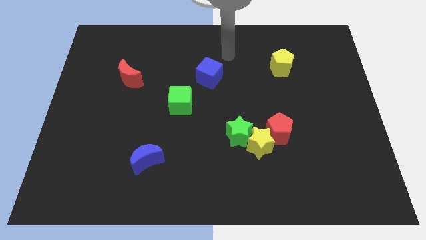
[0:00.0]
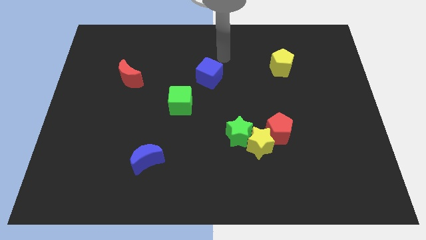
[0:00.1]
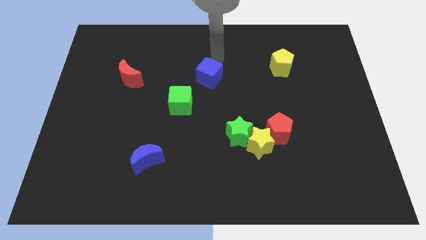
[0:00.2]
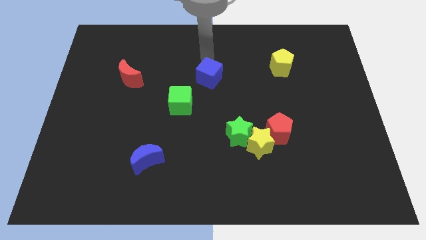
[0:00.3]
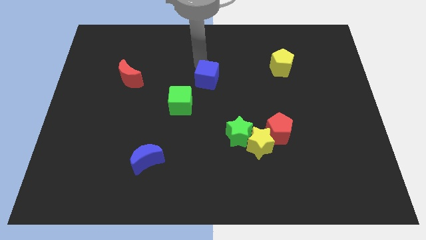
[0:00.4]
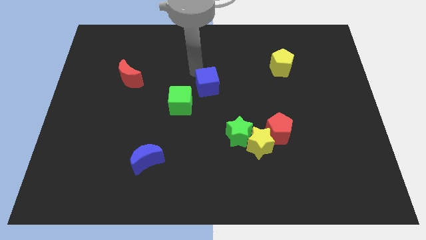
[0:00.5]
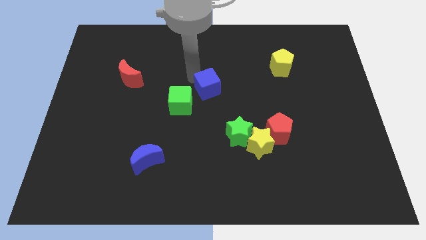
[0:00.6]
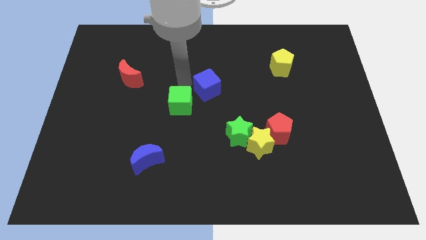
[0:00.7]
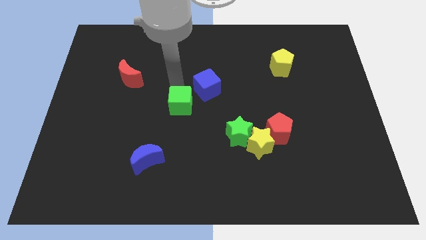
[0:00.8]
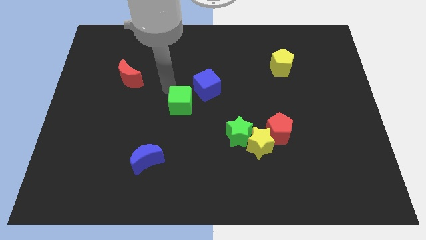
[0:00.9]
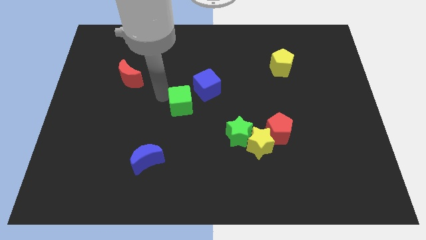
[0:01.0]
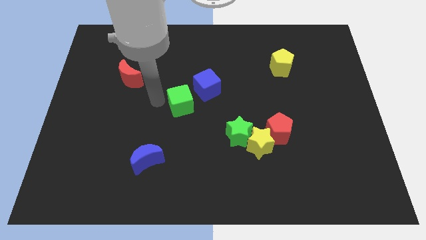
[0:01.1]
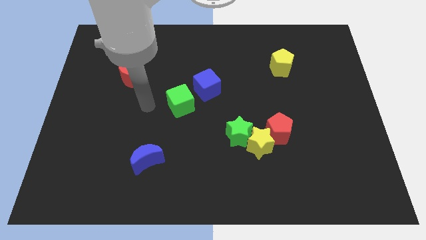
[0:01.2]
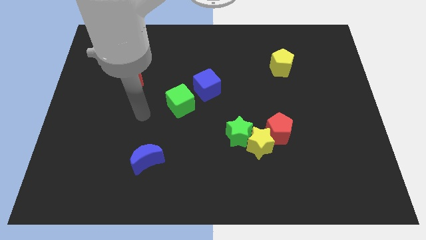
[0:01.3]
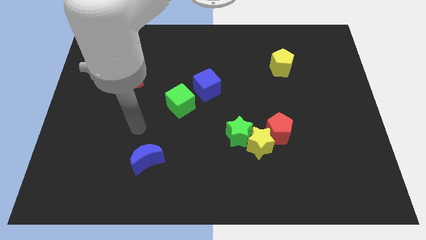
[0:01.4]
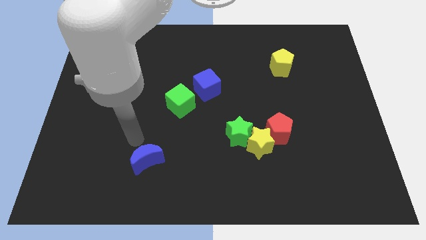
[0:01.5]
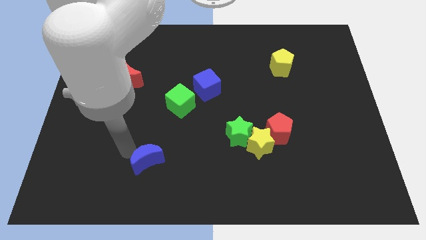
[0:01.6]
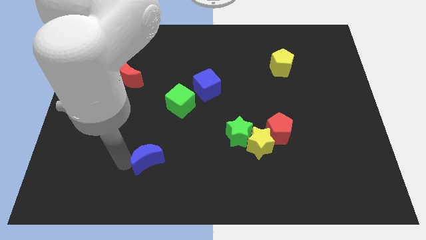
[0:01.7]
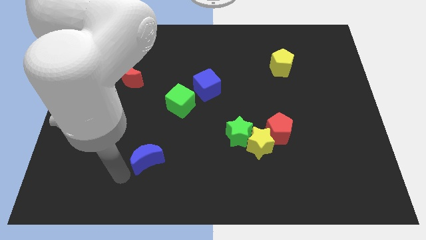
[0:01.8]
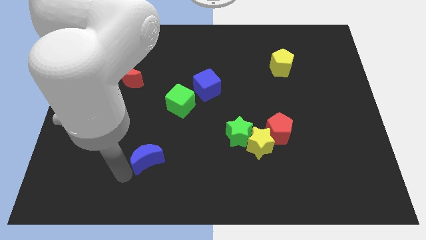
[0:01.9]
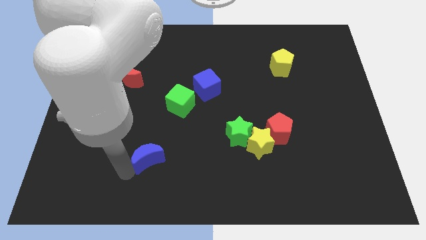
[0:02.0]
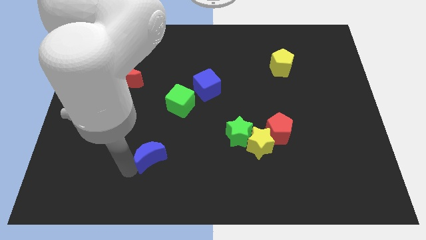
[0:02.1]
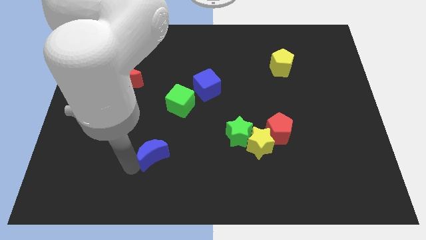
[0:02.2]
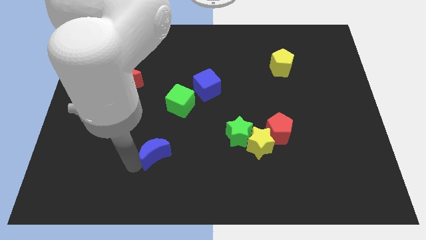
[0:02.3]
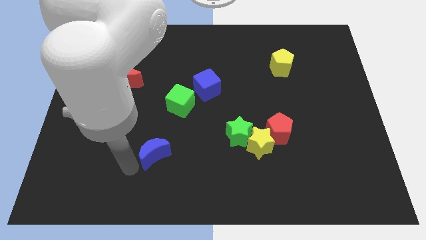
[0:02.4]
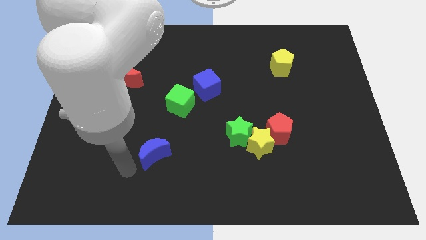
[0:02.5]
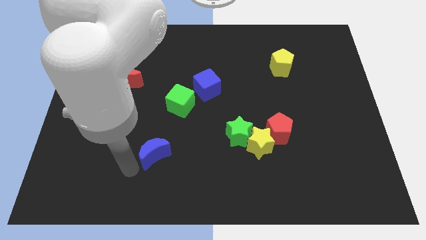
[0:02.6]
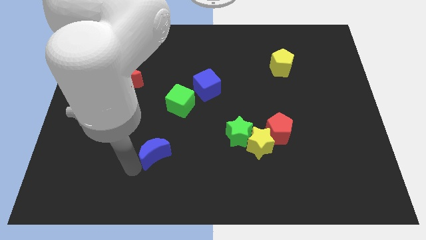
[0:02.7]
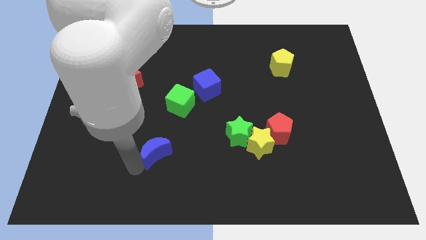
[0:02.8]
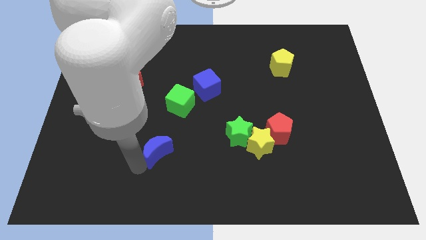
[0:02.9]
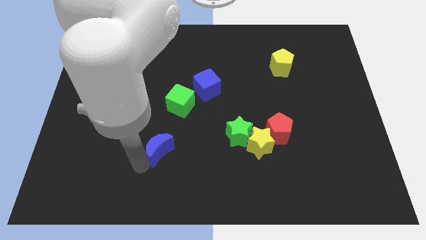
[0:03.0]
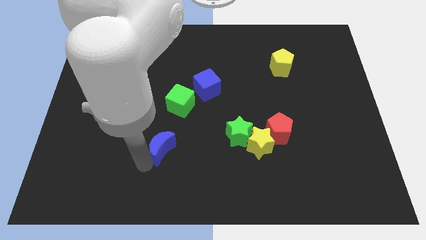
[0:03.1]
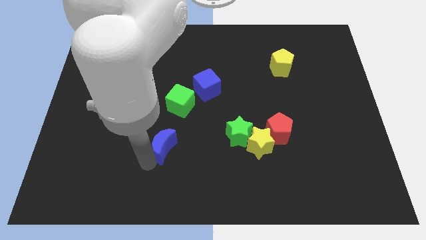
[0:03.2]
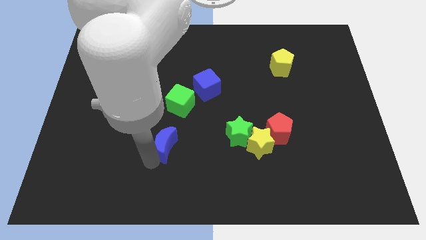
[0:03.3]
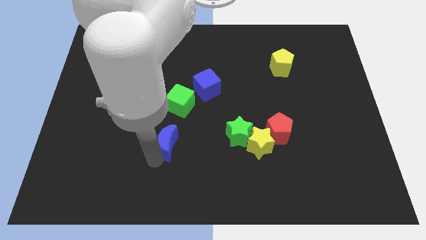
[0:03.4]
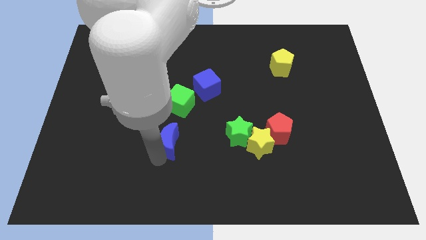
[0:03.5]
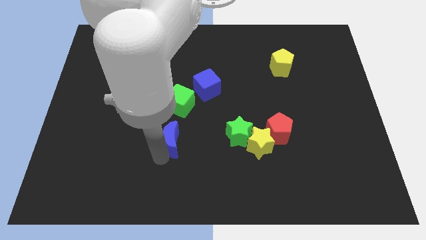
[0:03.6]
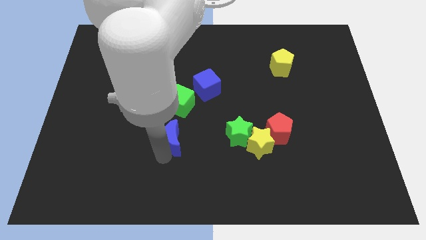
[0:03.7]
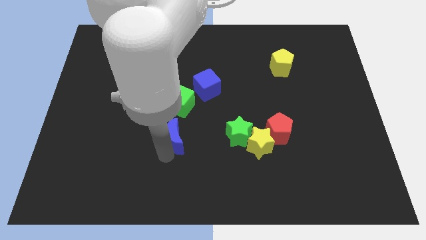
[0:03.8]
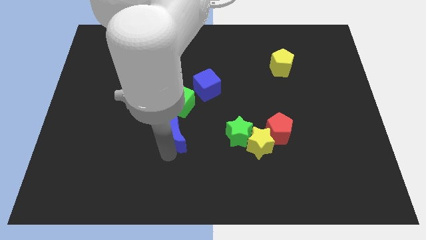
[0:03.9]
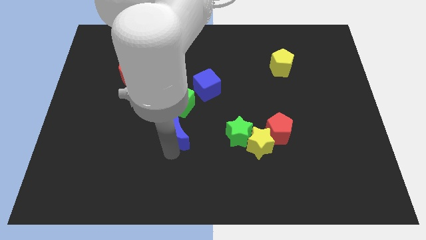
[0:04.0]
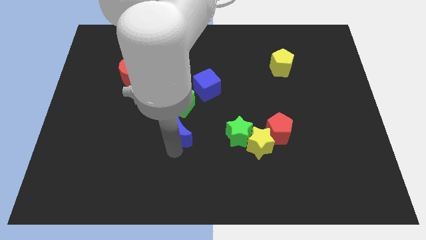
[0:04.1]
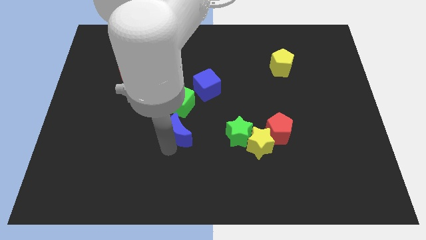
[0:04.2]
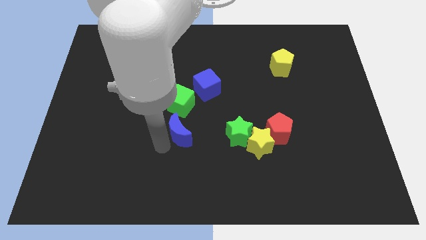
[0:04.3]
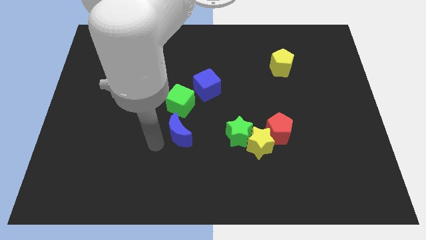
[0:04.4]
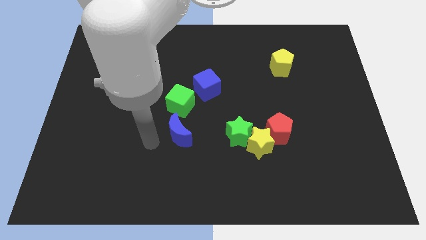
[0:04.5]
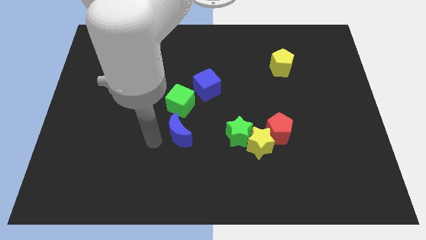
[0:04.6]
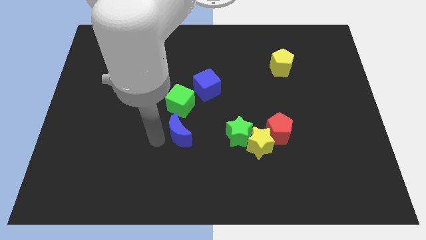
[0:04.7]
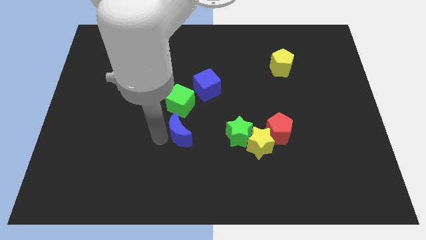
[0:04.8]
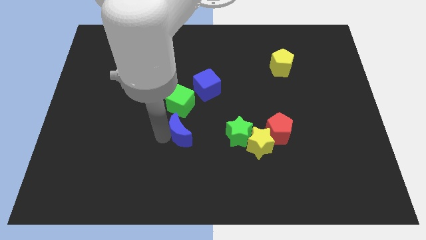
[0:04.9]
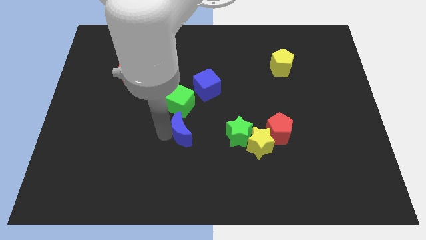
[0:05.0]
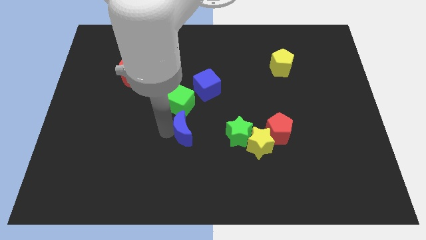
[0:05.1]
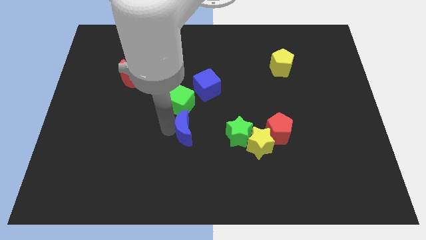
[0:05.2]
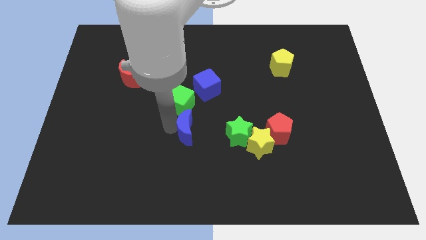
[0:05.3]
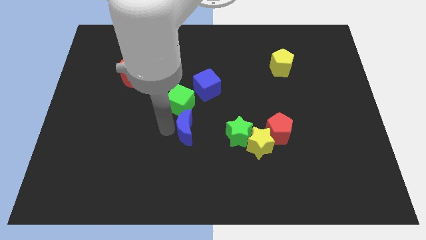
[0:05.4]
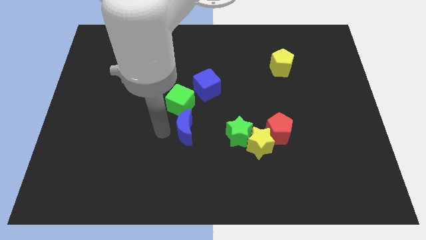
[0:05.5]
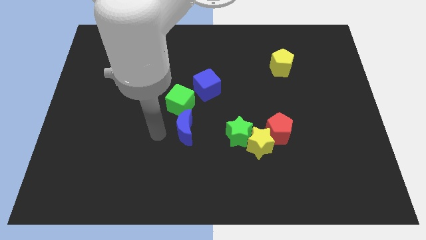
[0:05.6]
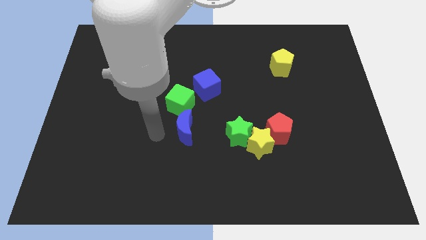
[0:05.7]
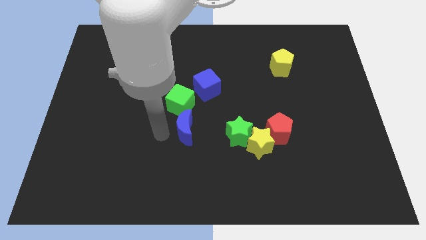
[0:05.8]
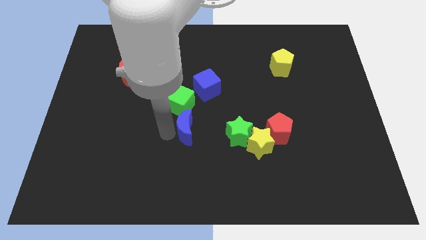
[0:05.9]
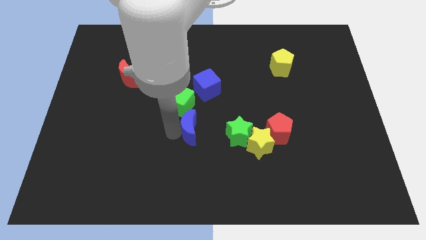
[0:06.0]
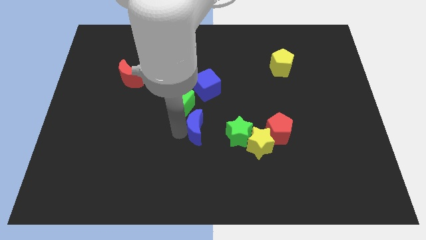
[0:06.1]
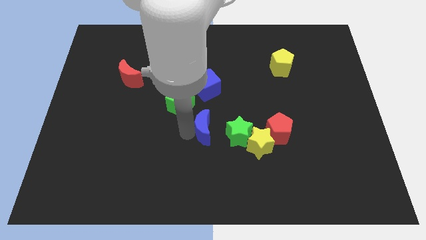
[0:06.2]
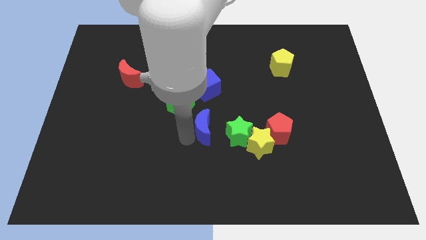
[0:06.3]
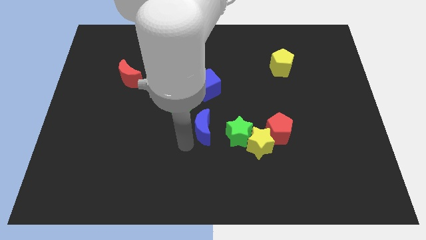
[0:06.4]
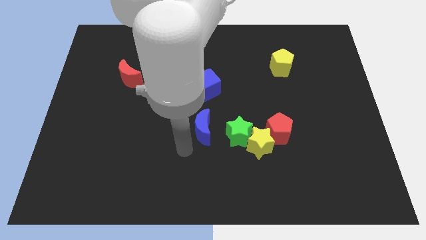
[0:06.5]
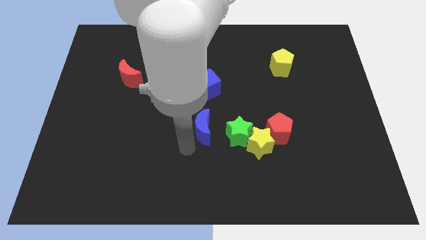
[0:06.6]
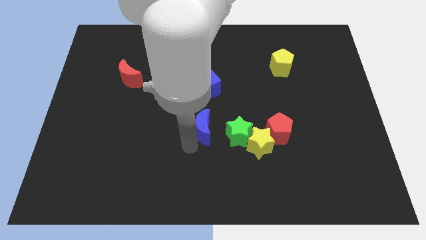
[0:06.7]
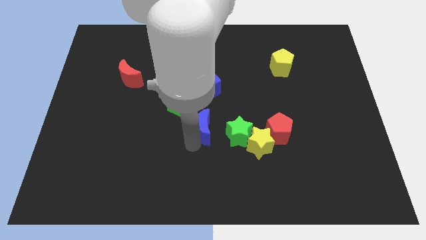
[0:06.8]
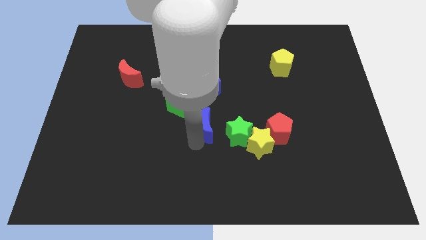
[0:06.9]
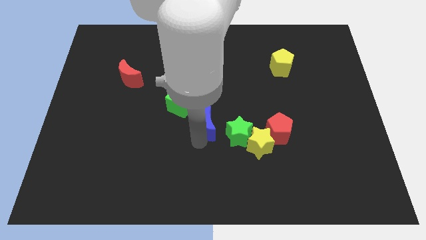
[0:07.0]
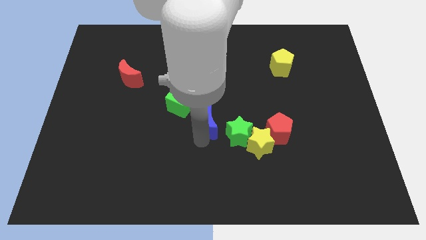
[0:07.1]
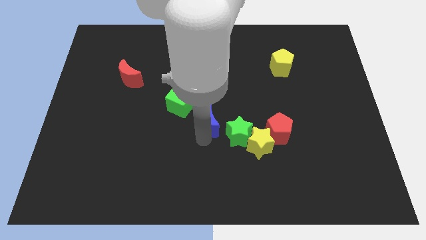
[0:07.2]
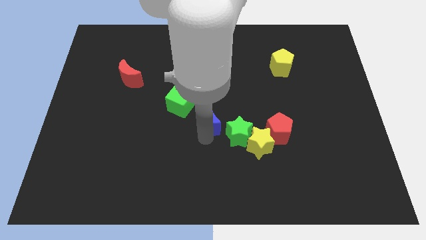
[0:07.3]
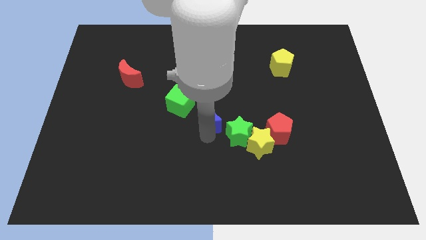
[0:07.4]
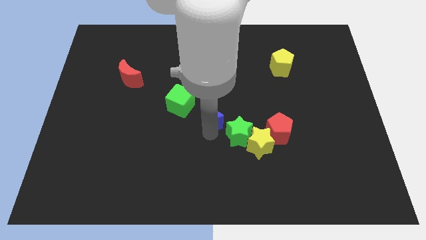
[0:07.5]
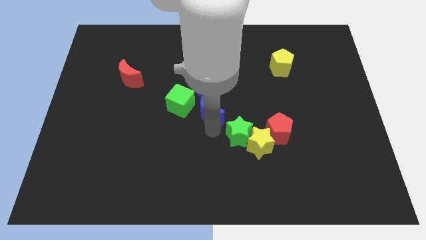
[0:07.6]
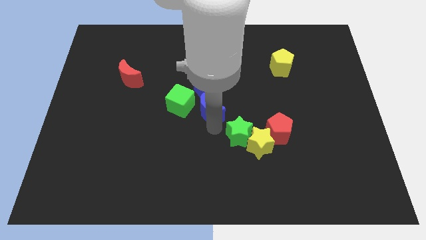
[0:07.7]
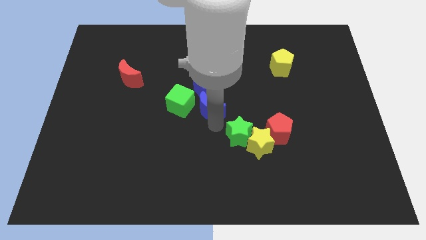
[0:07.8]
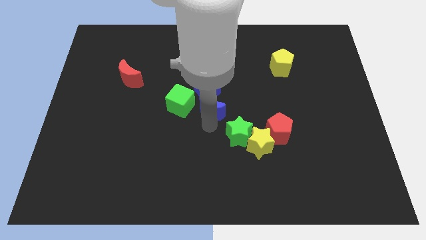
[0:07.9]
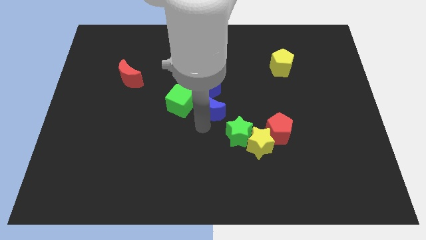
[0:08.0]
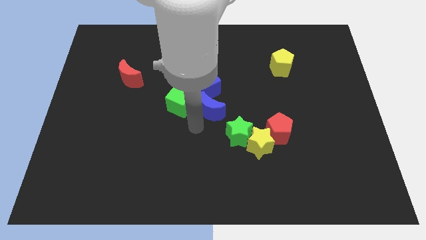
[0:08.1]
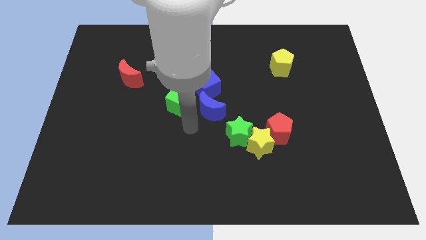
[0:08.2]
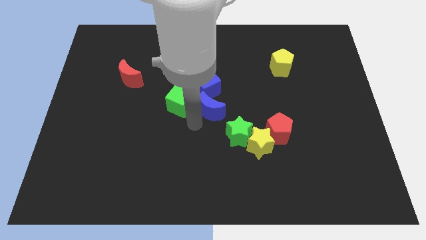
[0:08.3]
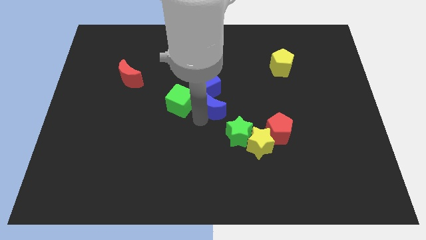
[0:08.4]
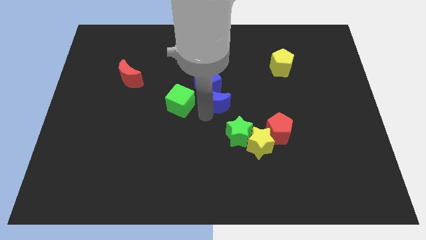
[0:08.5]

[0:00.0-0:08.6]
slide the blue moon up and then to the right
